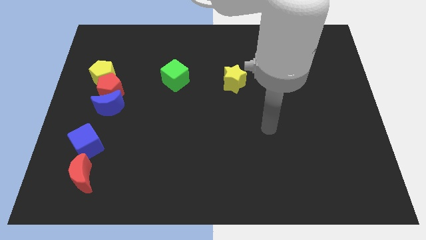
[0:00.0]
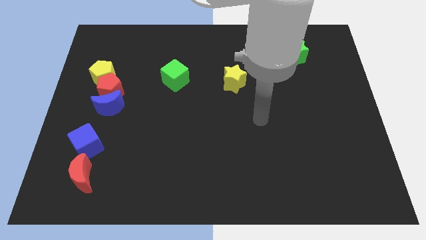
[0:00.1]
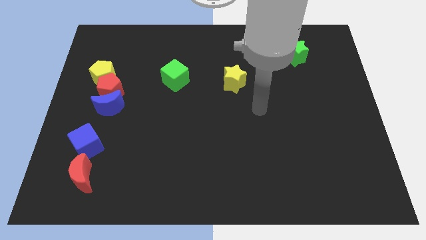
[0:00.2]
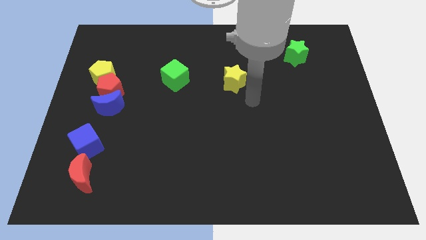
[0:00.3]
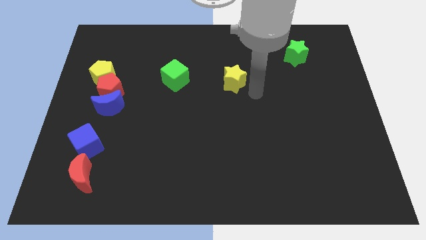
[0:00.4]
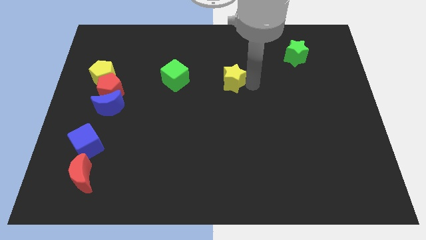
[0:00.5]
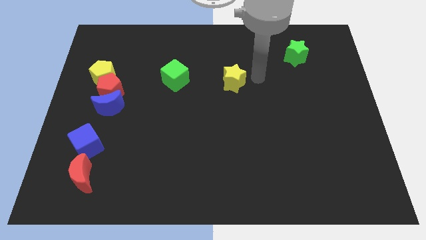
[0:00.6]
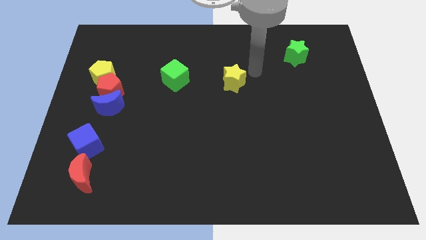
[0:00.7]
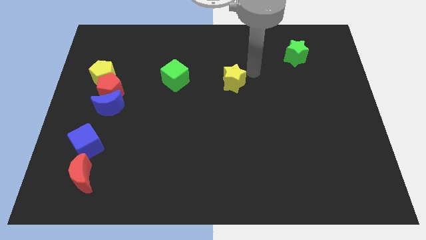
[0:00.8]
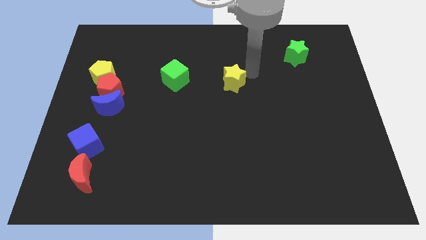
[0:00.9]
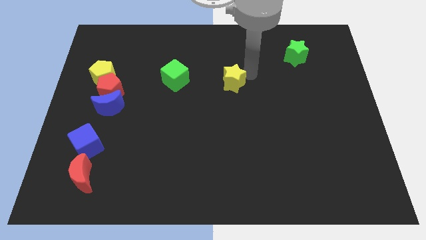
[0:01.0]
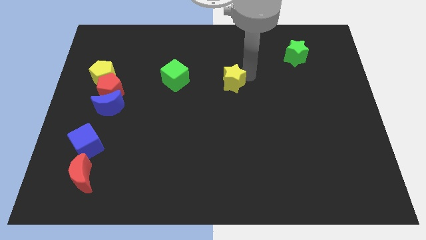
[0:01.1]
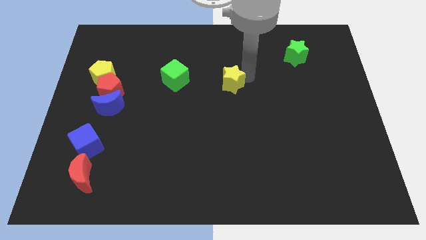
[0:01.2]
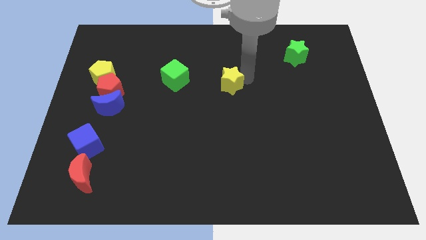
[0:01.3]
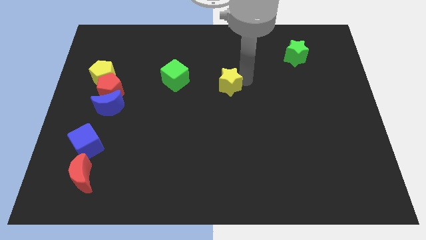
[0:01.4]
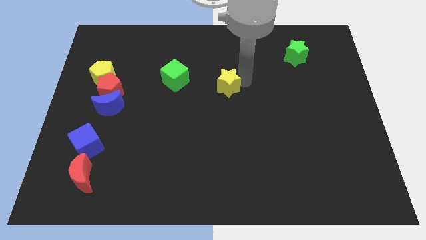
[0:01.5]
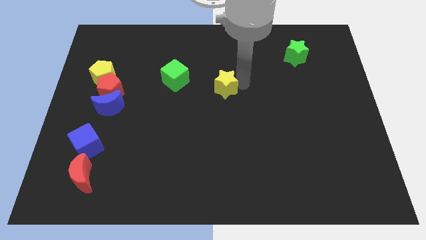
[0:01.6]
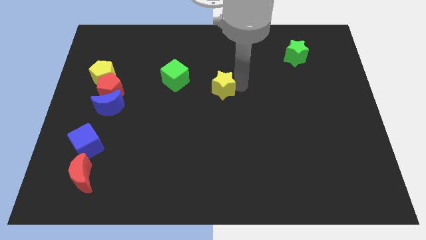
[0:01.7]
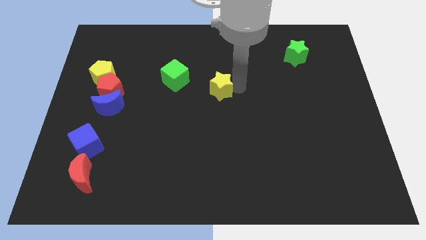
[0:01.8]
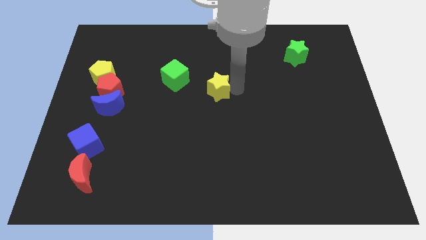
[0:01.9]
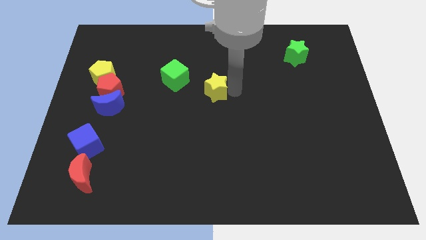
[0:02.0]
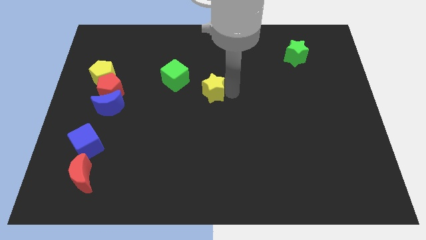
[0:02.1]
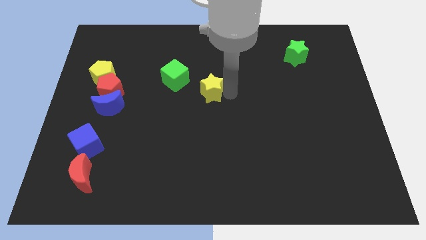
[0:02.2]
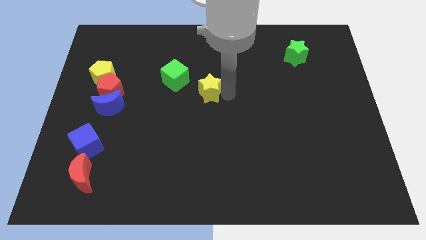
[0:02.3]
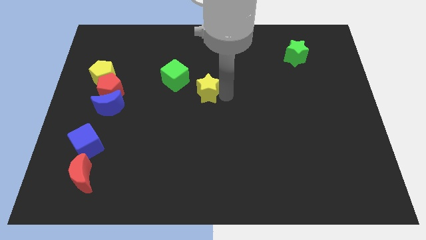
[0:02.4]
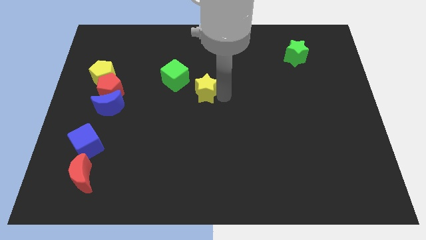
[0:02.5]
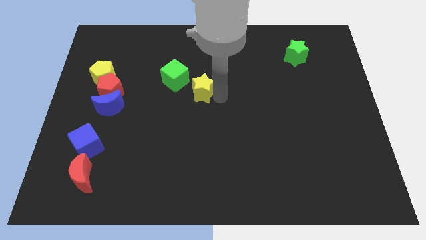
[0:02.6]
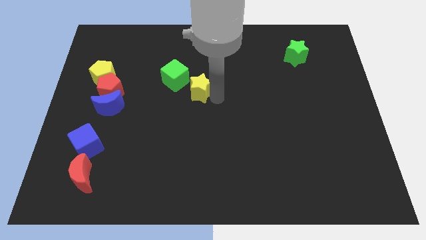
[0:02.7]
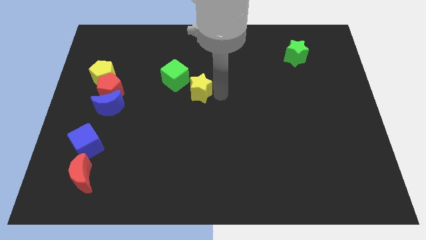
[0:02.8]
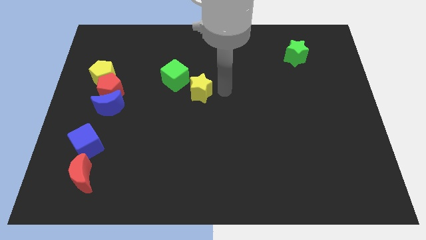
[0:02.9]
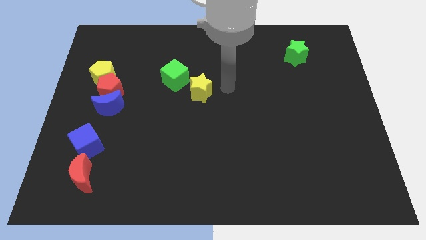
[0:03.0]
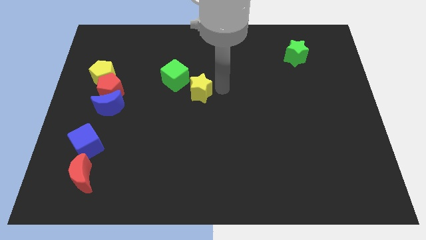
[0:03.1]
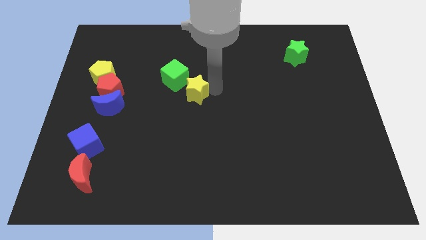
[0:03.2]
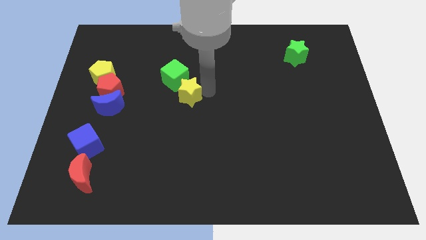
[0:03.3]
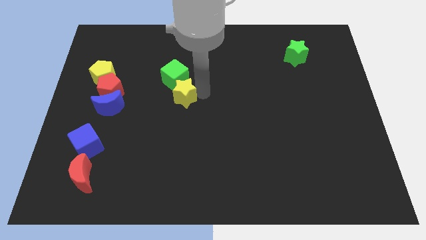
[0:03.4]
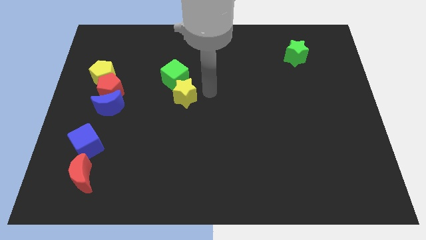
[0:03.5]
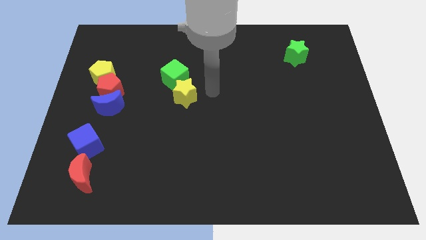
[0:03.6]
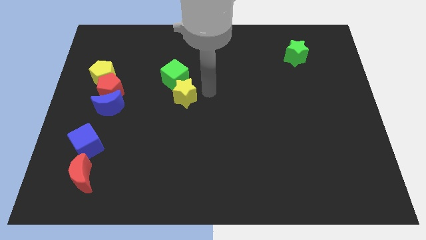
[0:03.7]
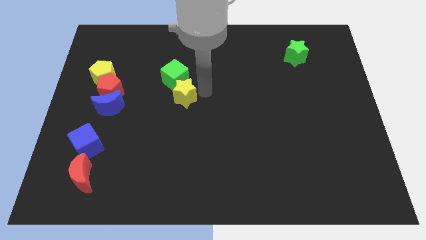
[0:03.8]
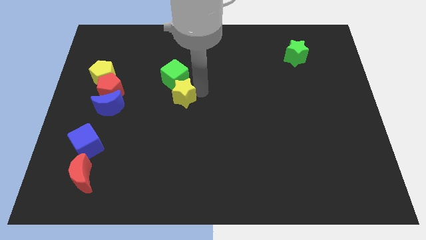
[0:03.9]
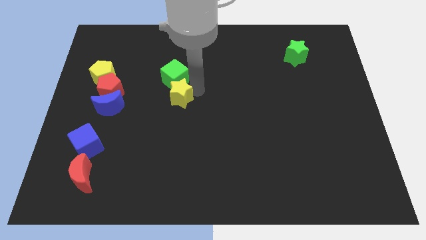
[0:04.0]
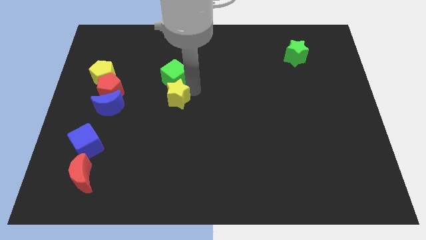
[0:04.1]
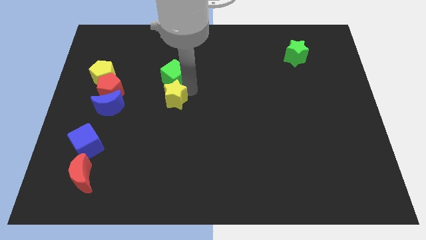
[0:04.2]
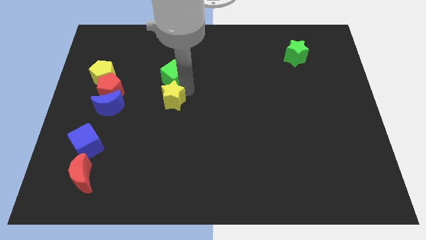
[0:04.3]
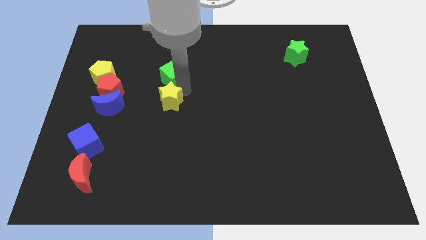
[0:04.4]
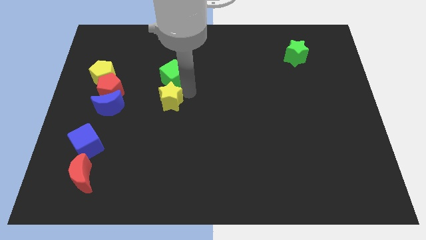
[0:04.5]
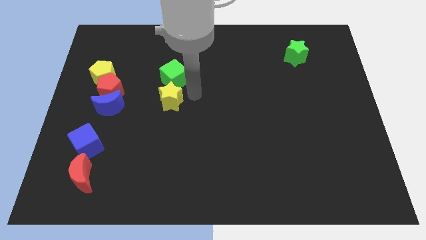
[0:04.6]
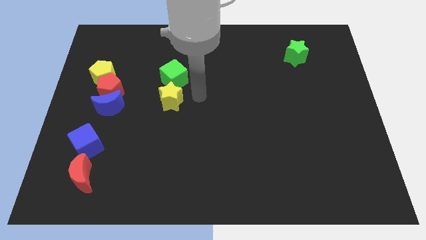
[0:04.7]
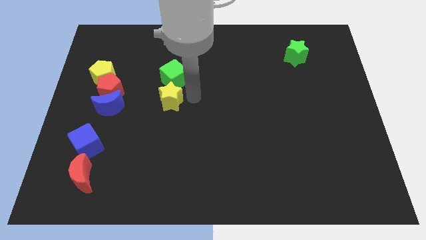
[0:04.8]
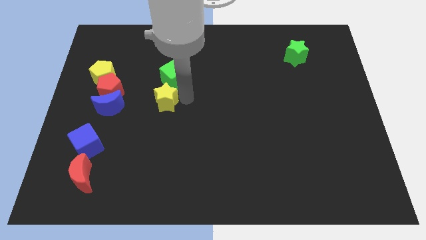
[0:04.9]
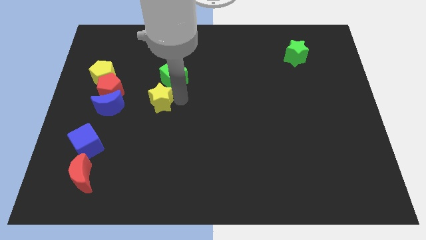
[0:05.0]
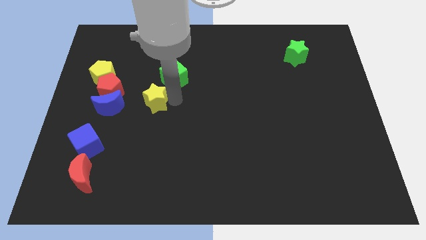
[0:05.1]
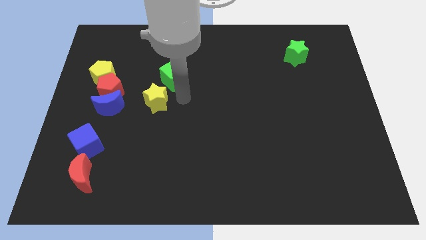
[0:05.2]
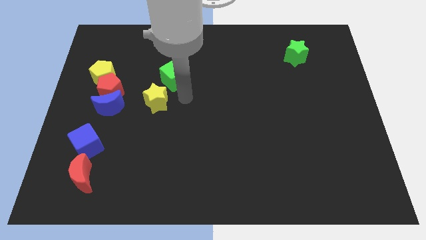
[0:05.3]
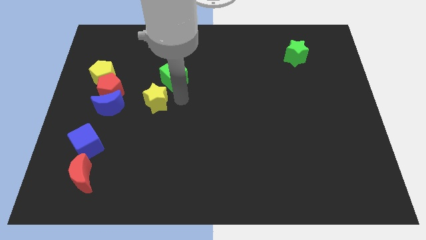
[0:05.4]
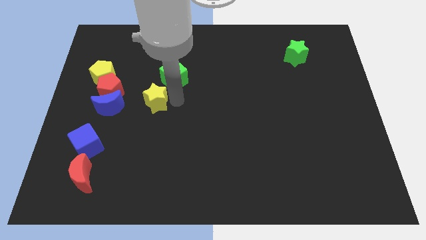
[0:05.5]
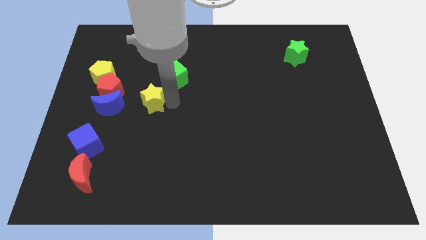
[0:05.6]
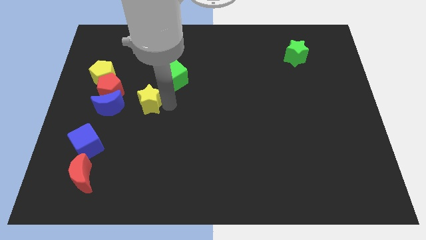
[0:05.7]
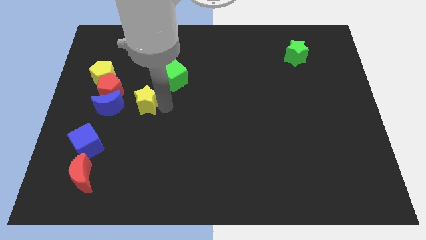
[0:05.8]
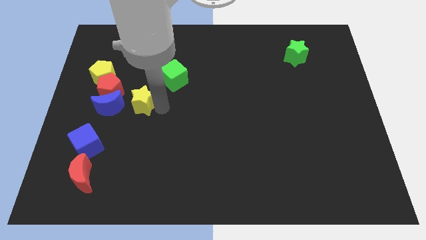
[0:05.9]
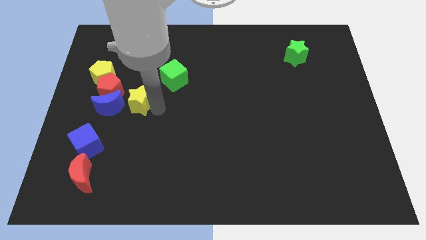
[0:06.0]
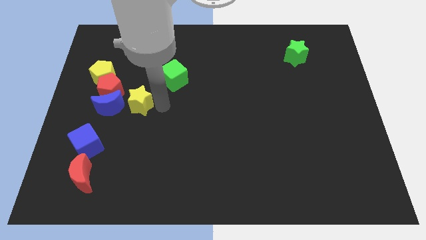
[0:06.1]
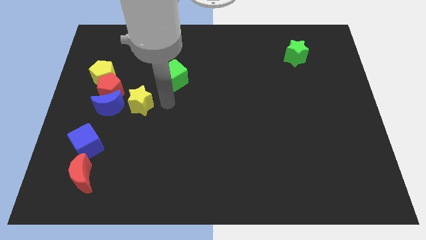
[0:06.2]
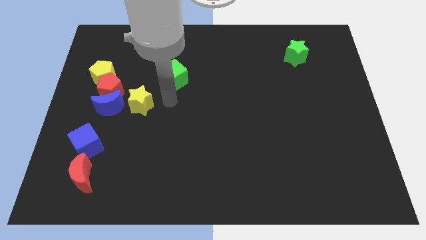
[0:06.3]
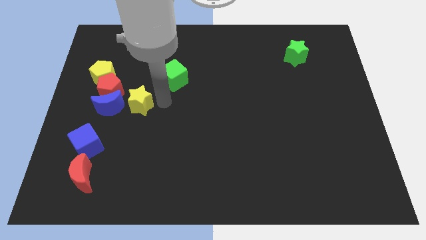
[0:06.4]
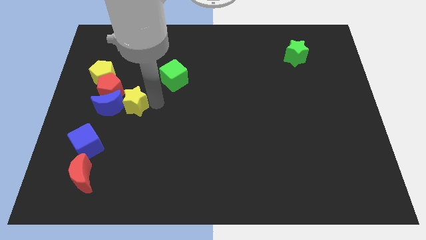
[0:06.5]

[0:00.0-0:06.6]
put the yellow star close to the blue moon
